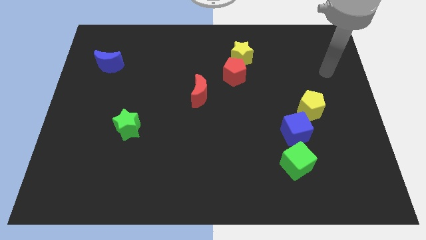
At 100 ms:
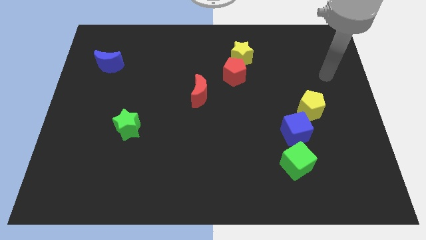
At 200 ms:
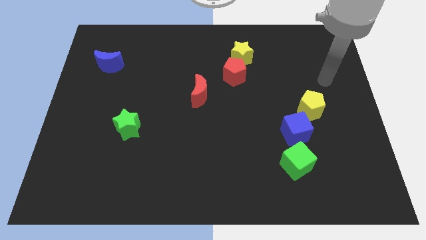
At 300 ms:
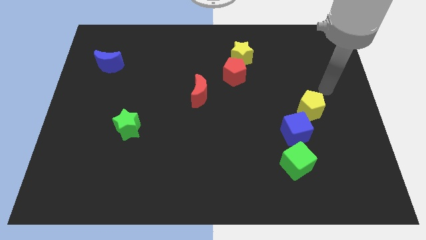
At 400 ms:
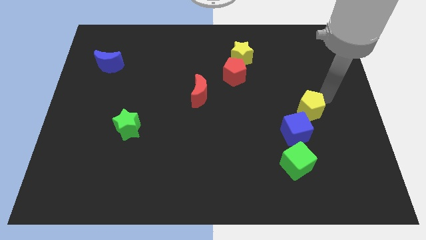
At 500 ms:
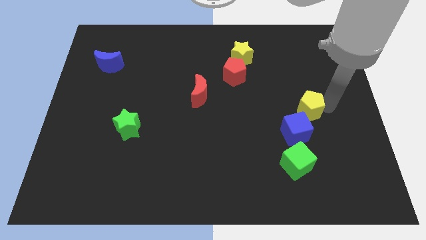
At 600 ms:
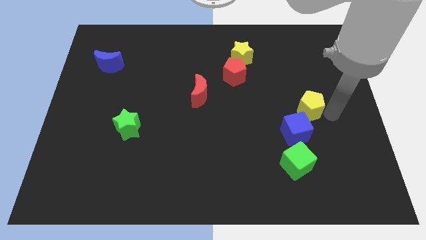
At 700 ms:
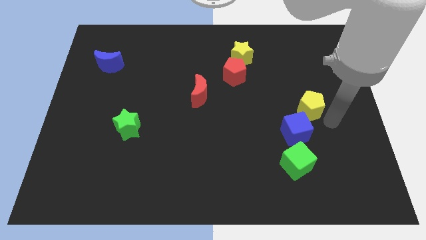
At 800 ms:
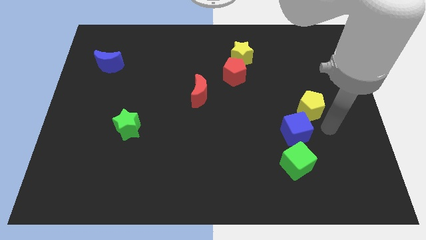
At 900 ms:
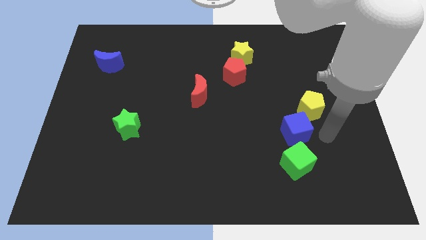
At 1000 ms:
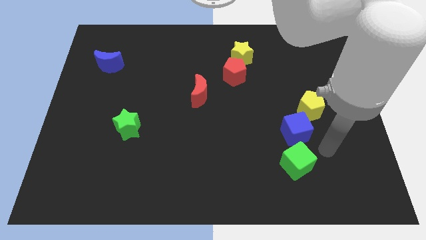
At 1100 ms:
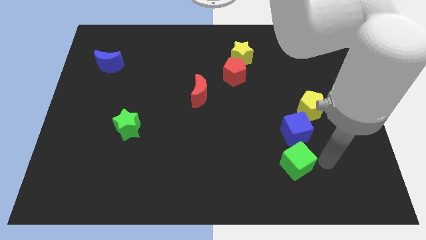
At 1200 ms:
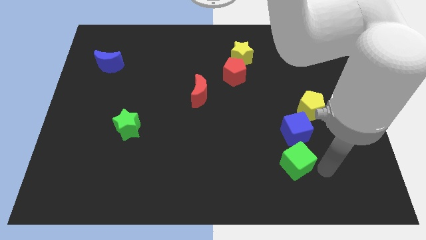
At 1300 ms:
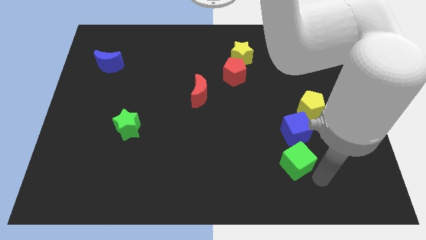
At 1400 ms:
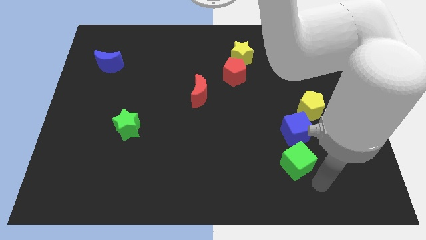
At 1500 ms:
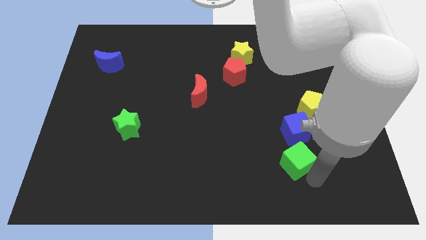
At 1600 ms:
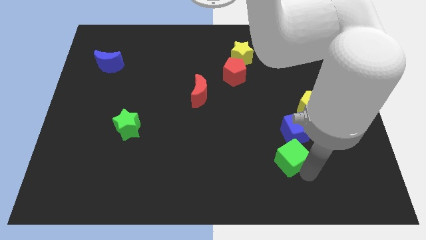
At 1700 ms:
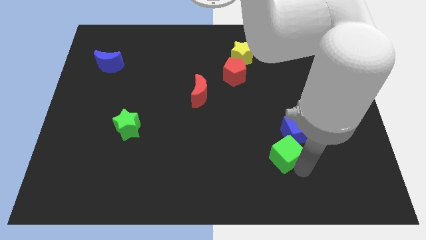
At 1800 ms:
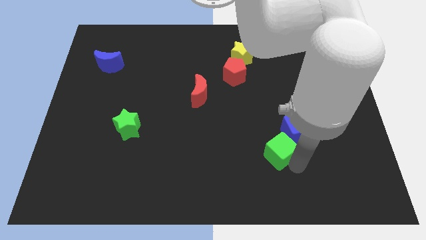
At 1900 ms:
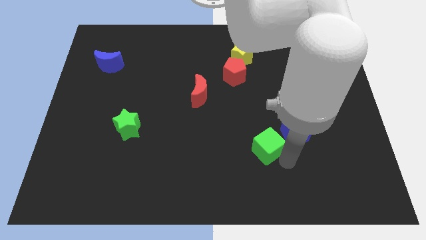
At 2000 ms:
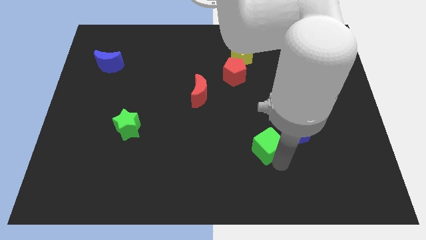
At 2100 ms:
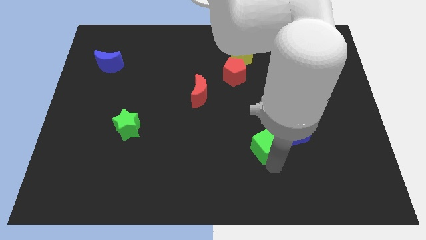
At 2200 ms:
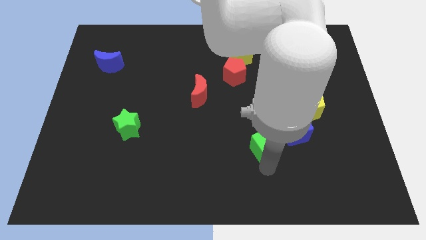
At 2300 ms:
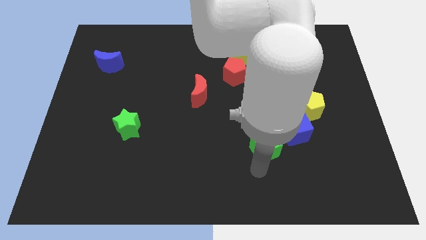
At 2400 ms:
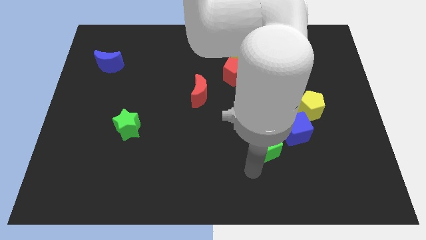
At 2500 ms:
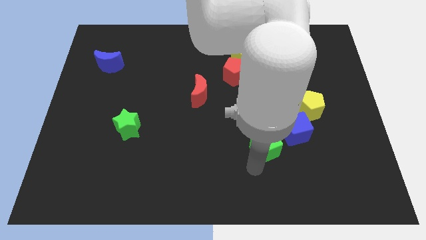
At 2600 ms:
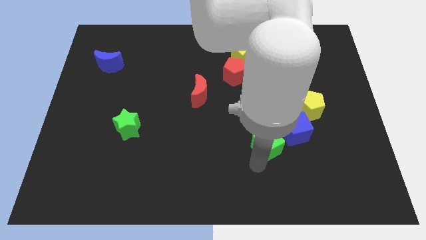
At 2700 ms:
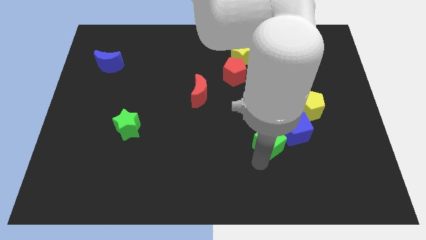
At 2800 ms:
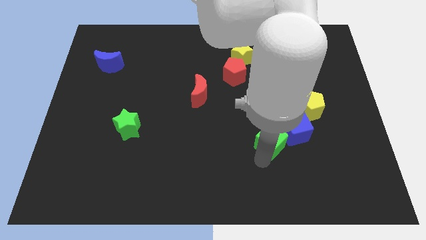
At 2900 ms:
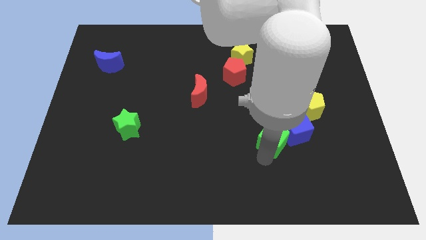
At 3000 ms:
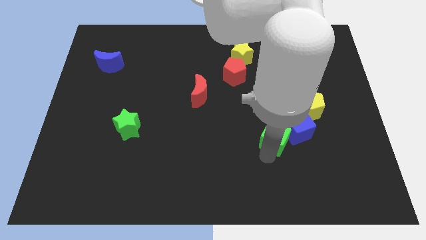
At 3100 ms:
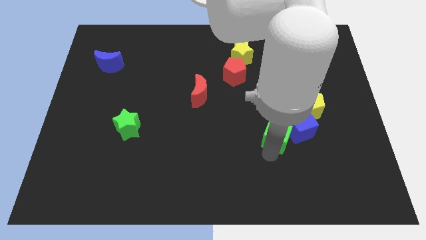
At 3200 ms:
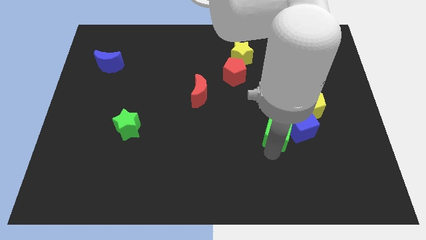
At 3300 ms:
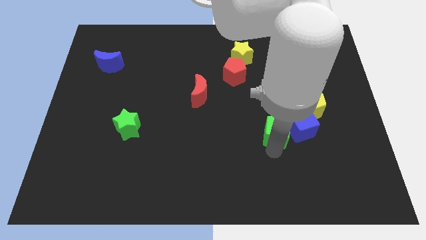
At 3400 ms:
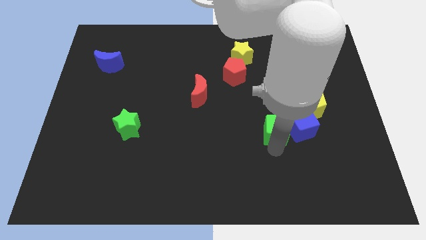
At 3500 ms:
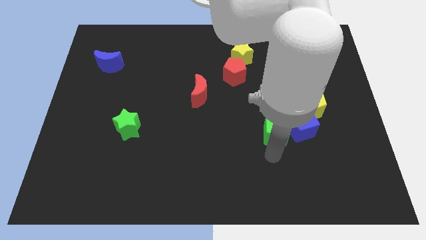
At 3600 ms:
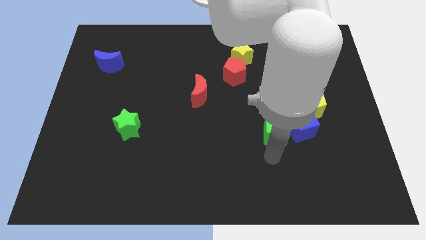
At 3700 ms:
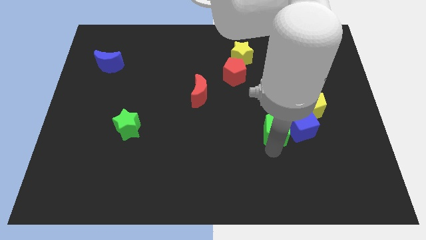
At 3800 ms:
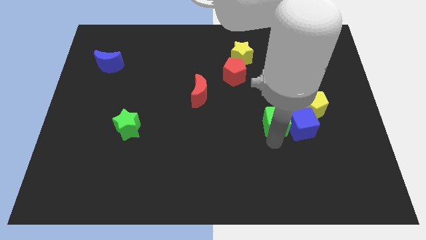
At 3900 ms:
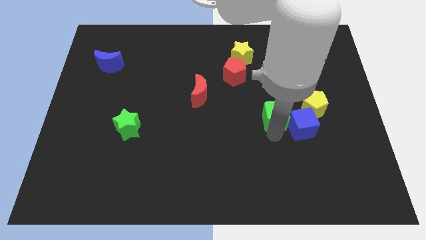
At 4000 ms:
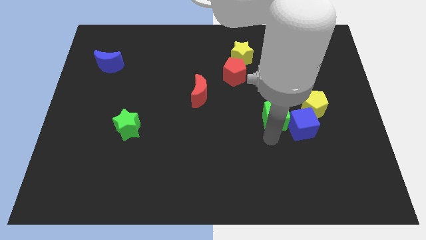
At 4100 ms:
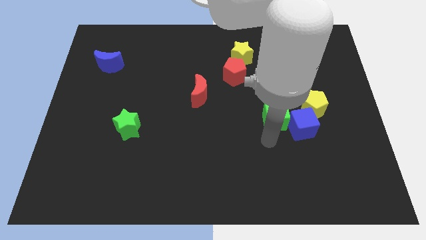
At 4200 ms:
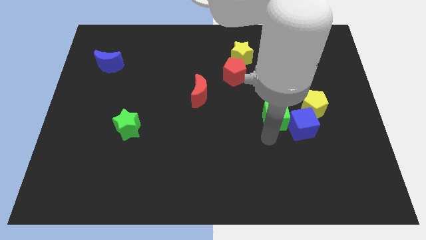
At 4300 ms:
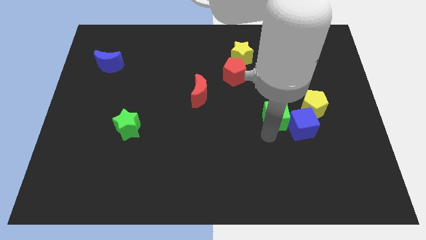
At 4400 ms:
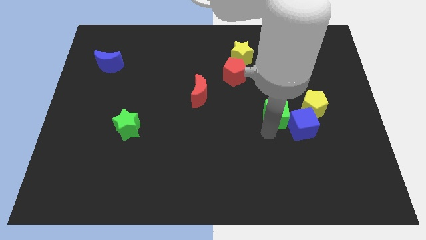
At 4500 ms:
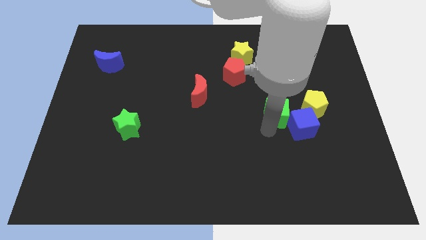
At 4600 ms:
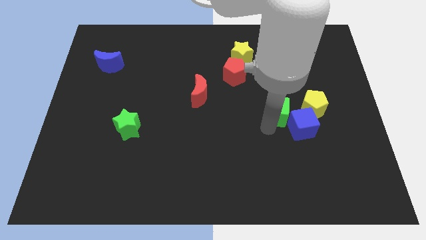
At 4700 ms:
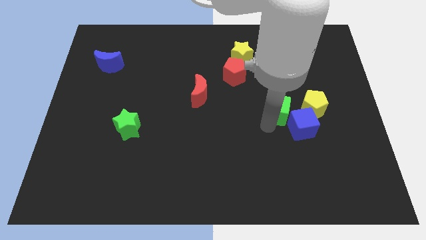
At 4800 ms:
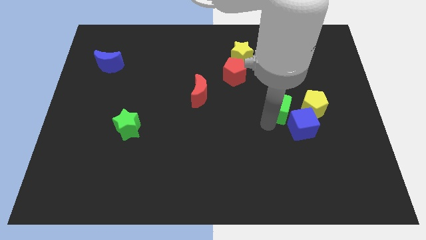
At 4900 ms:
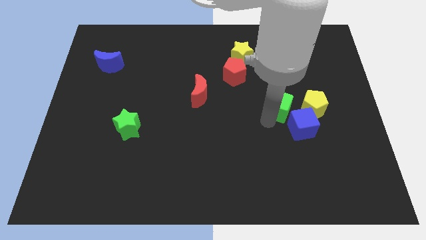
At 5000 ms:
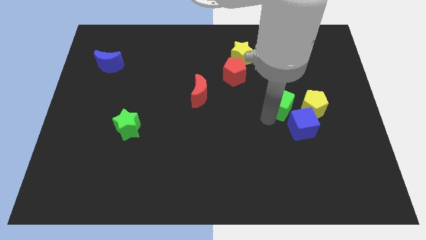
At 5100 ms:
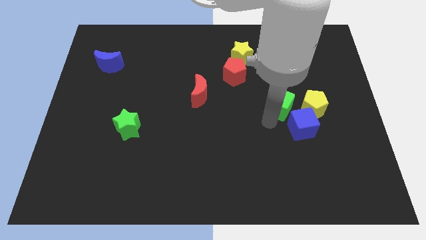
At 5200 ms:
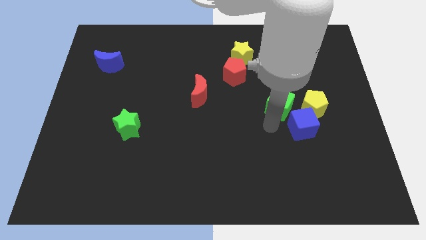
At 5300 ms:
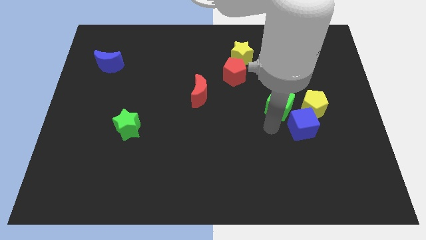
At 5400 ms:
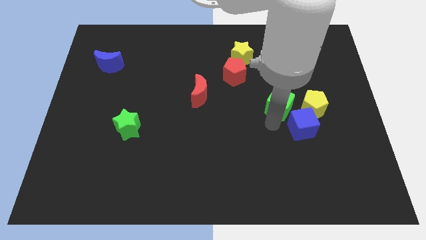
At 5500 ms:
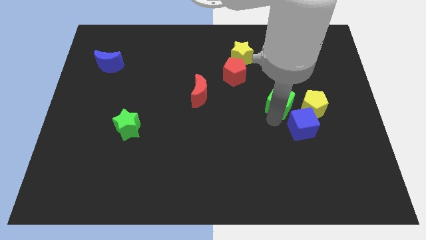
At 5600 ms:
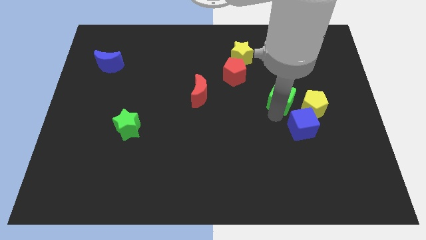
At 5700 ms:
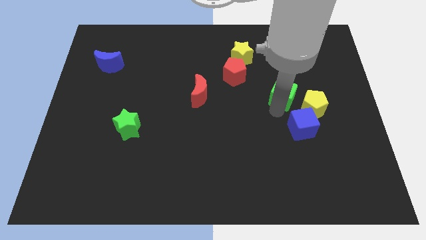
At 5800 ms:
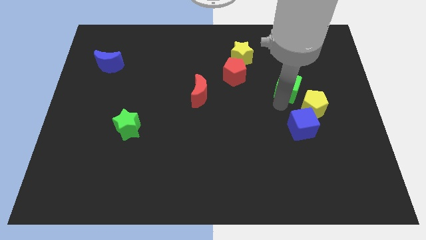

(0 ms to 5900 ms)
push the green cube upwards

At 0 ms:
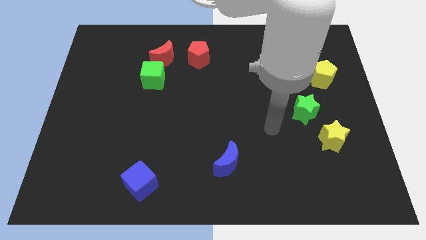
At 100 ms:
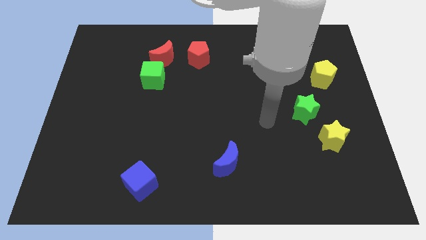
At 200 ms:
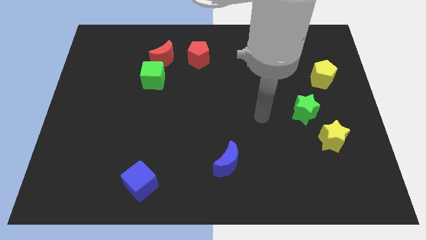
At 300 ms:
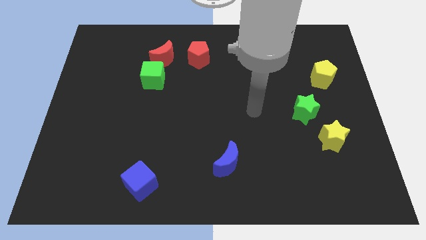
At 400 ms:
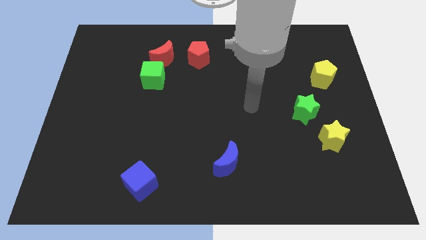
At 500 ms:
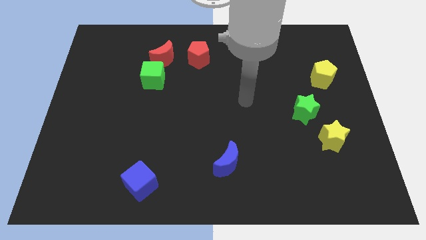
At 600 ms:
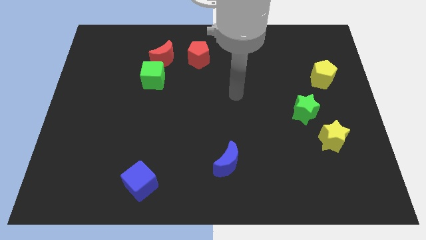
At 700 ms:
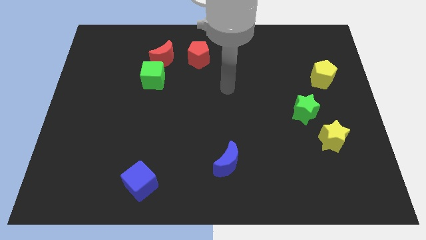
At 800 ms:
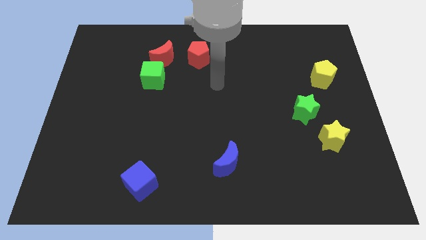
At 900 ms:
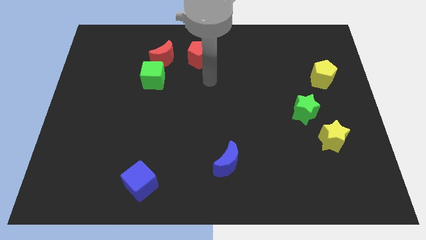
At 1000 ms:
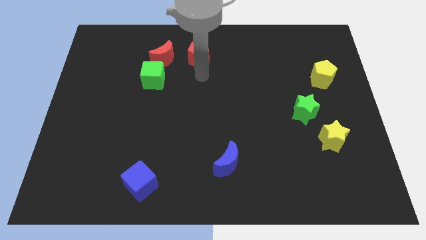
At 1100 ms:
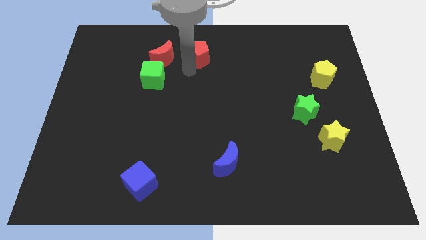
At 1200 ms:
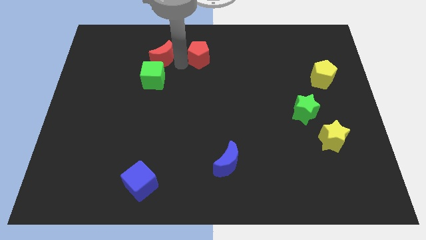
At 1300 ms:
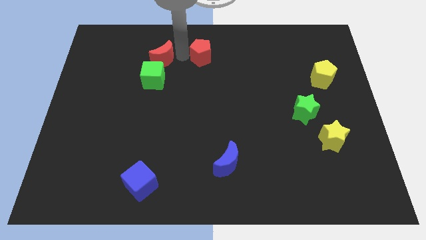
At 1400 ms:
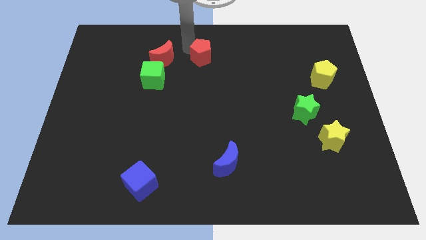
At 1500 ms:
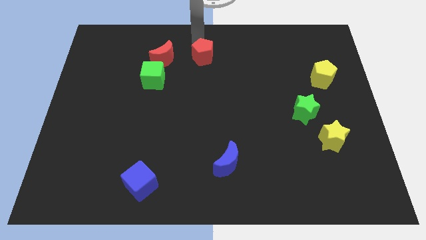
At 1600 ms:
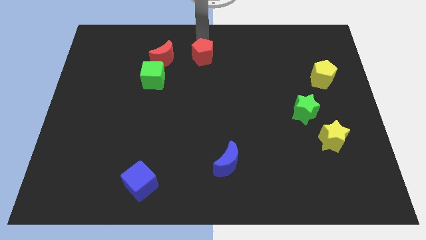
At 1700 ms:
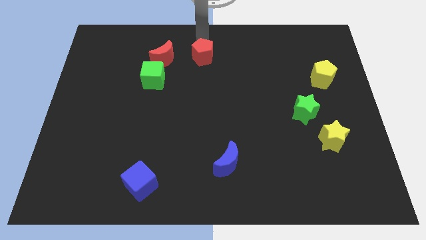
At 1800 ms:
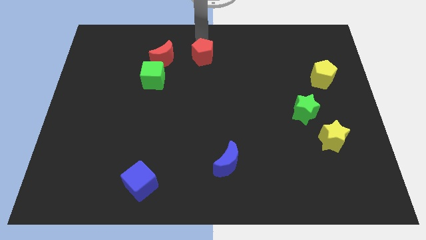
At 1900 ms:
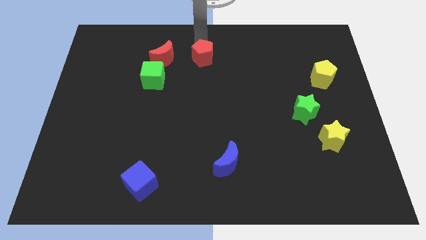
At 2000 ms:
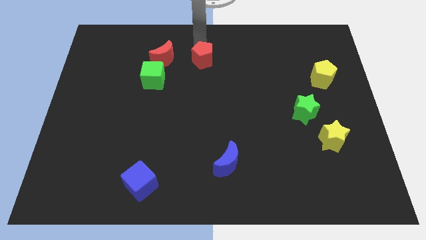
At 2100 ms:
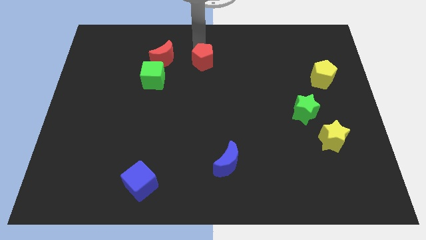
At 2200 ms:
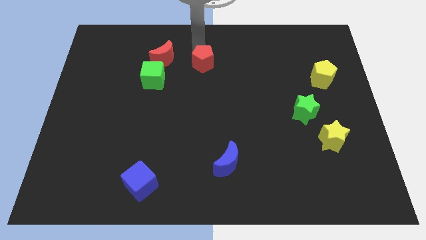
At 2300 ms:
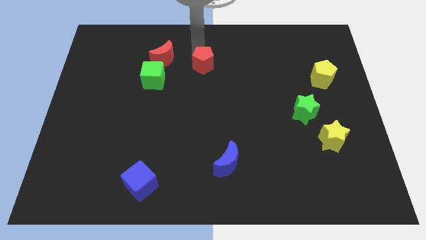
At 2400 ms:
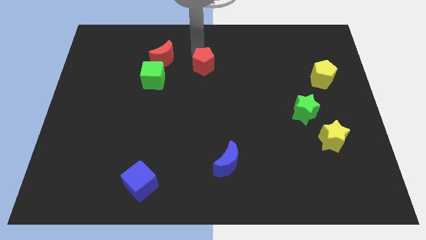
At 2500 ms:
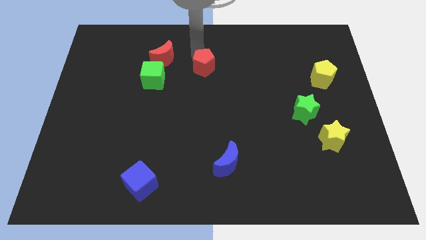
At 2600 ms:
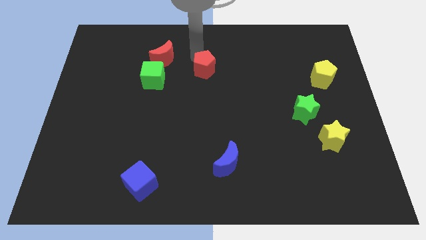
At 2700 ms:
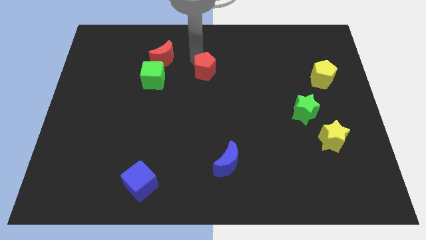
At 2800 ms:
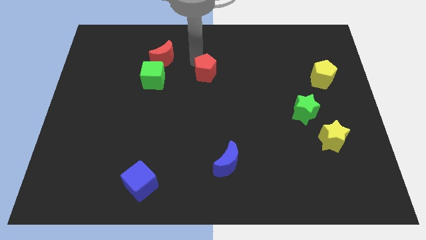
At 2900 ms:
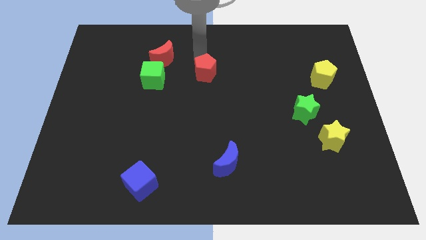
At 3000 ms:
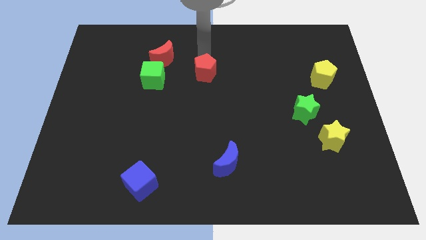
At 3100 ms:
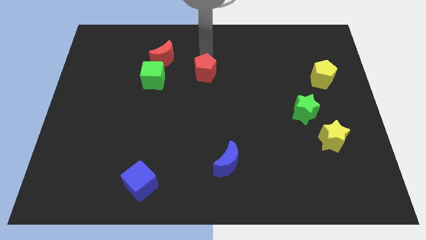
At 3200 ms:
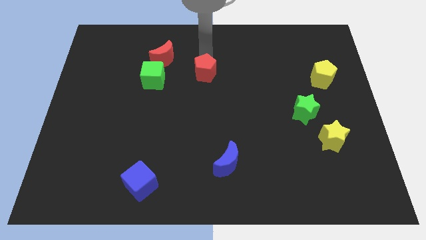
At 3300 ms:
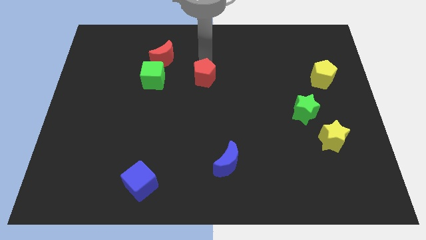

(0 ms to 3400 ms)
push the red pentagon downwards a bit
